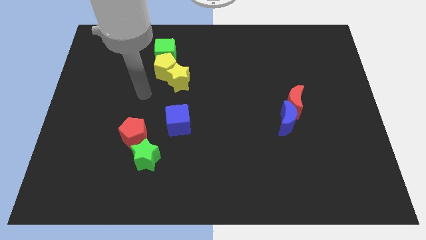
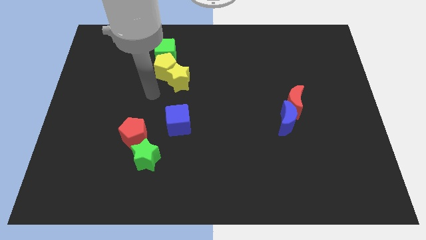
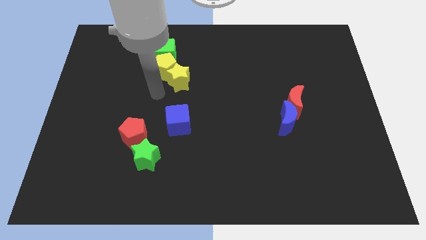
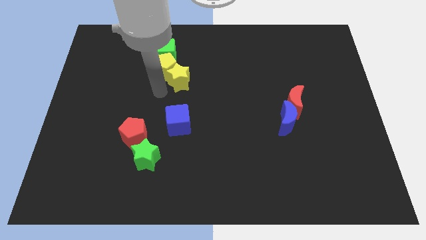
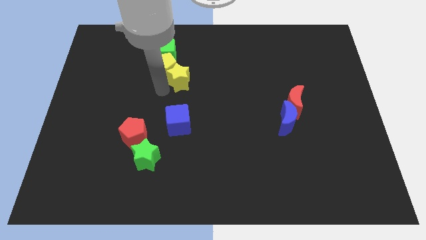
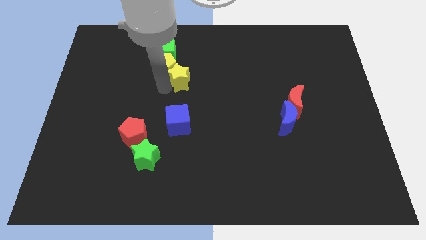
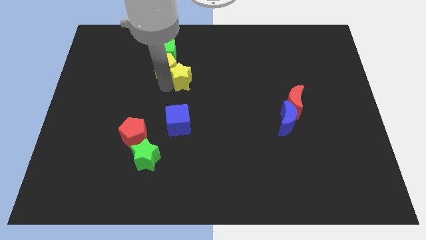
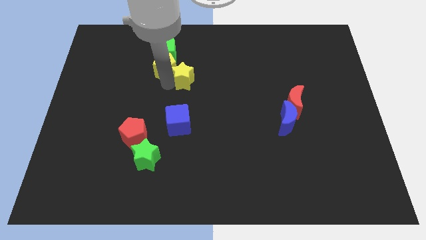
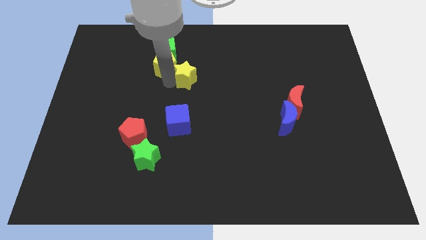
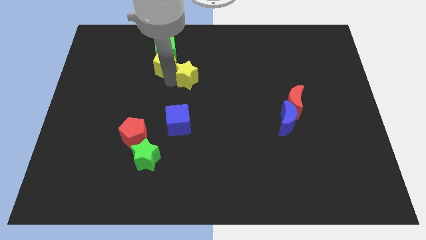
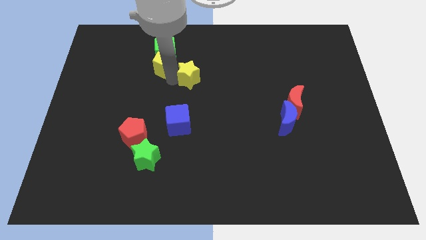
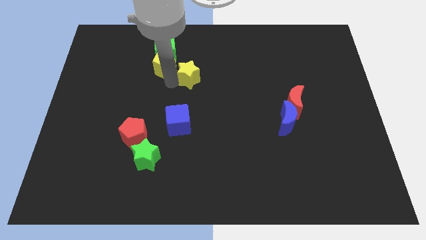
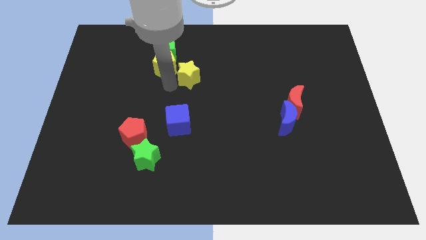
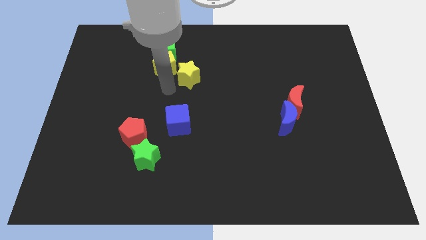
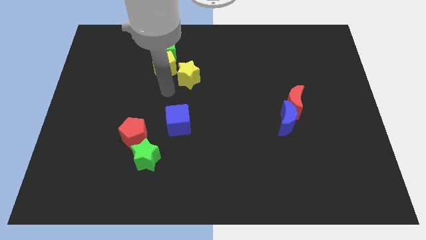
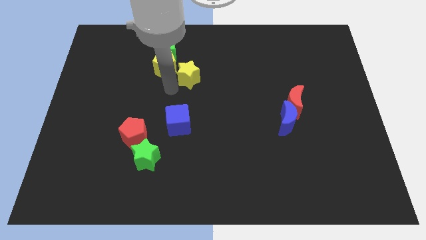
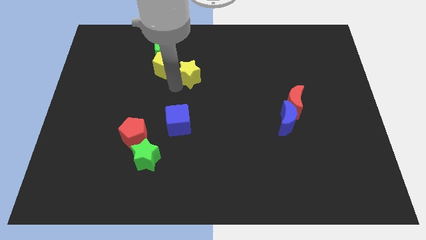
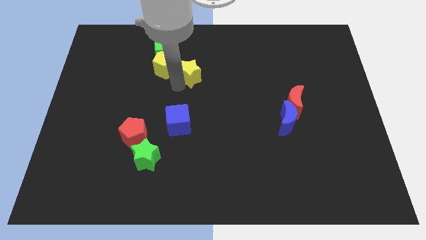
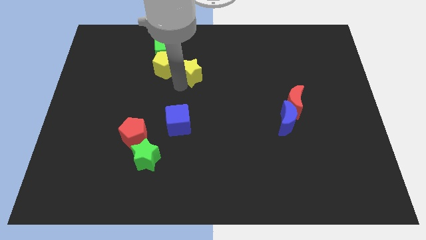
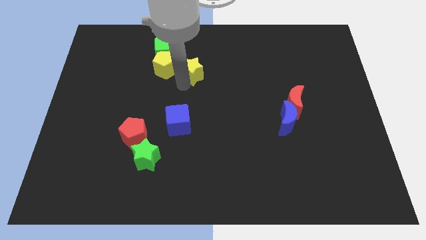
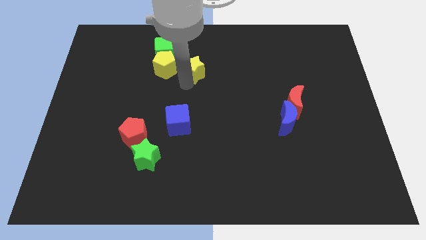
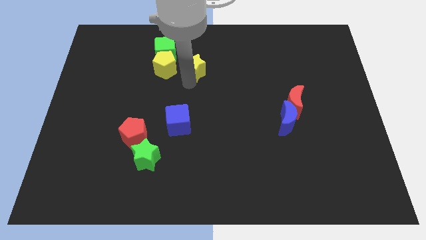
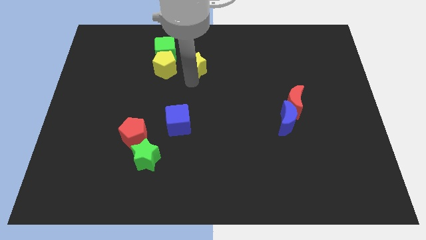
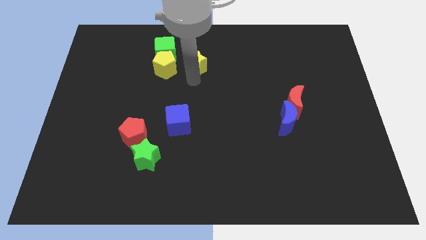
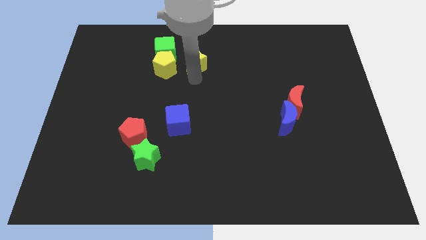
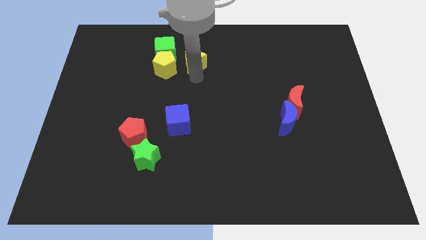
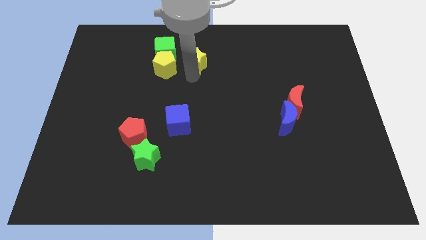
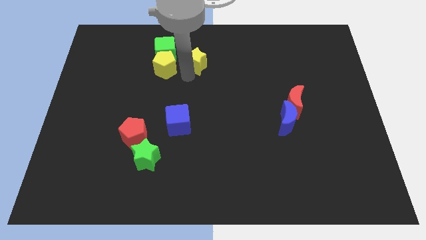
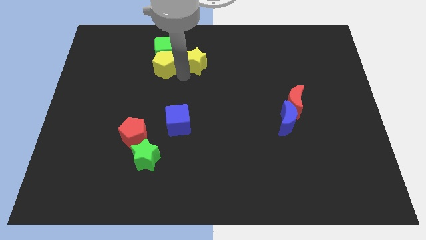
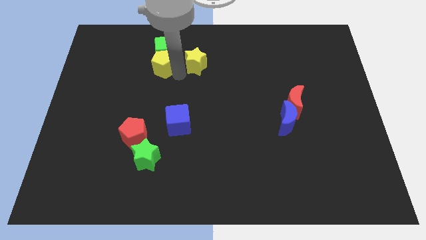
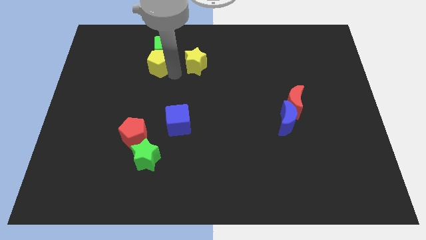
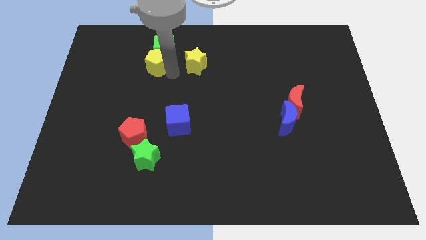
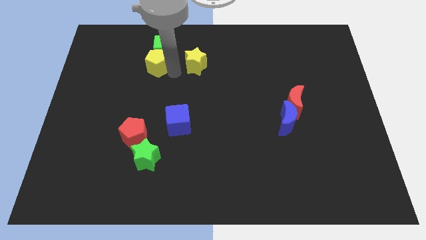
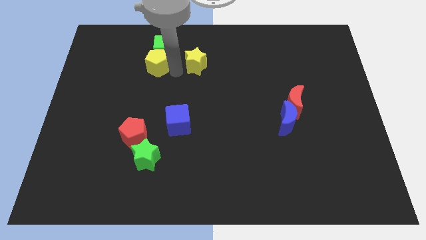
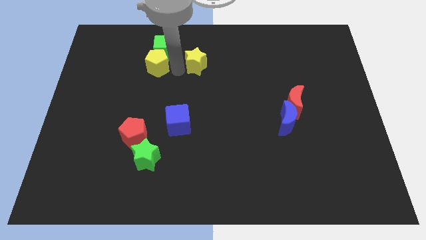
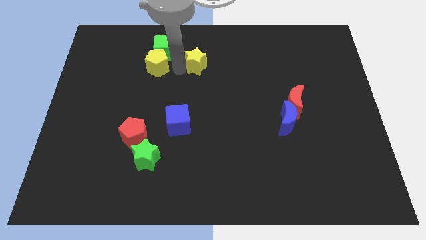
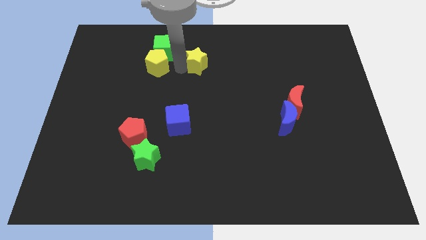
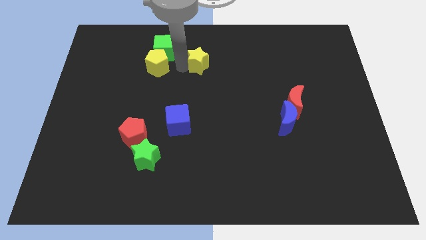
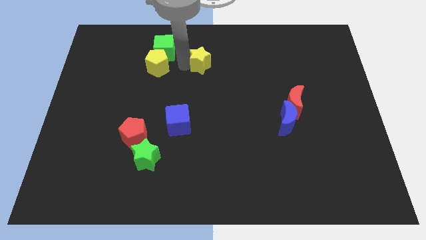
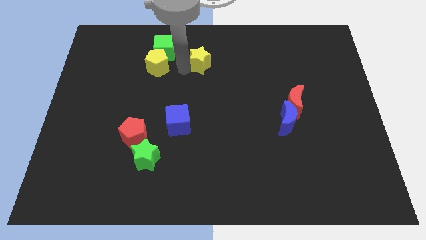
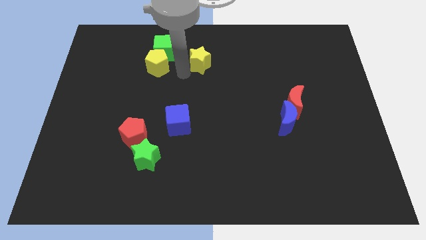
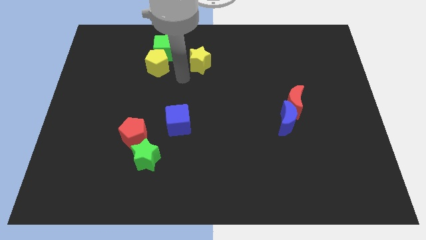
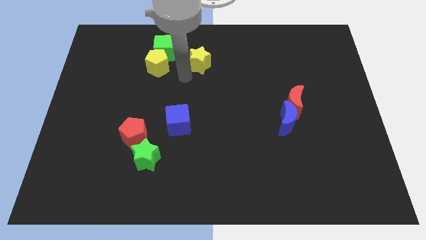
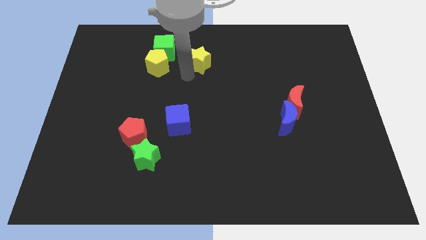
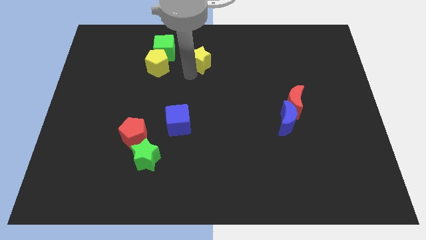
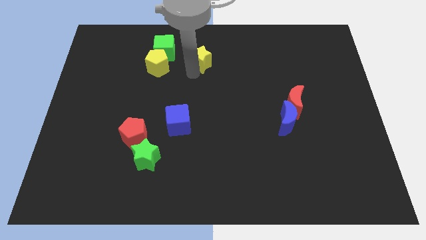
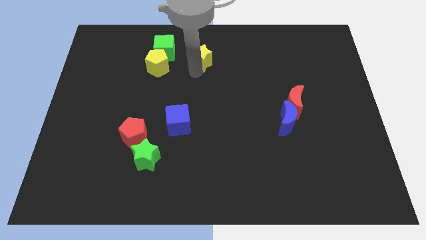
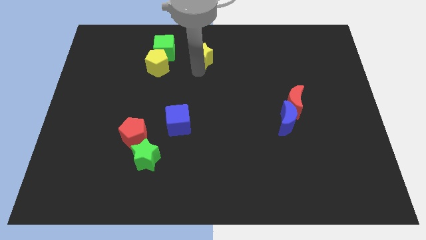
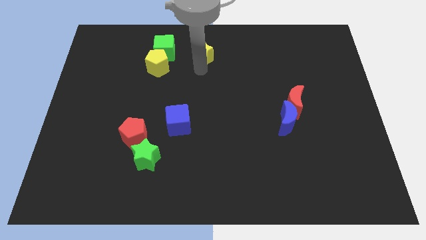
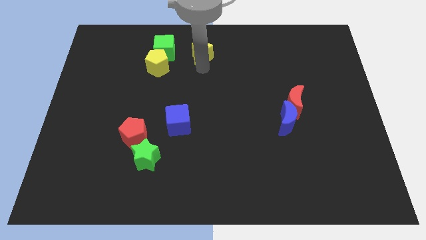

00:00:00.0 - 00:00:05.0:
push the yellow star to the top
